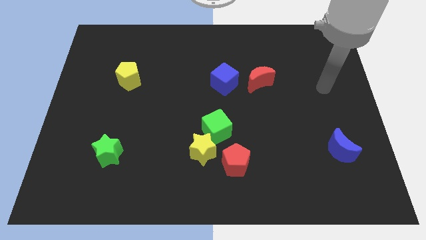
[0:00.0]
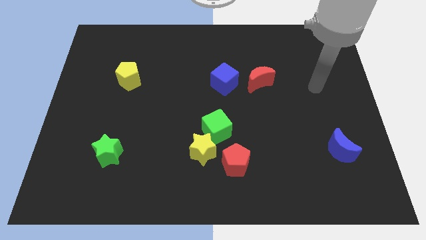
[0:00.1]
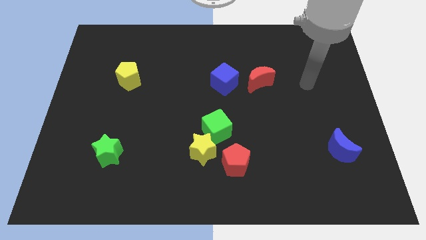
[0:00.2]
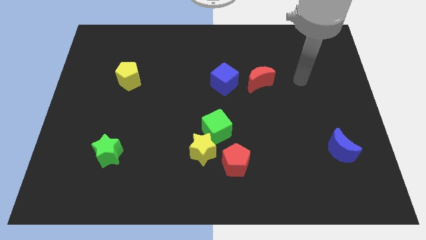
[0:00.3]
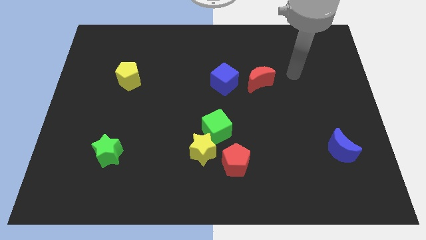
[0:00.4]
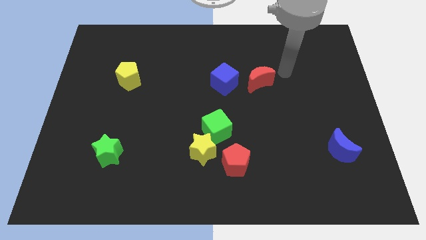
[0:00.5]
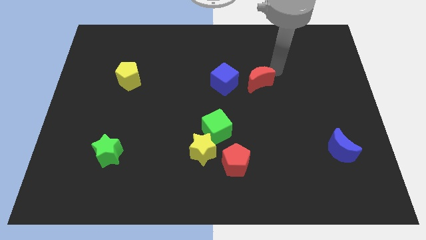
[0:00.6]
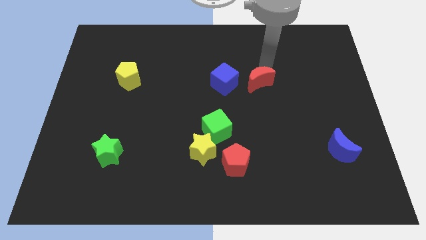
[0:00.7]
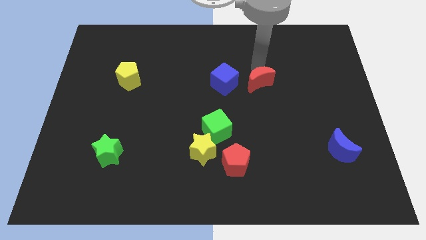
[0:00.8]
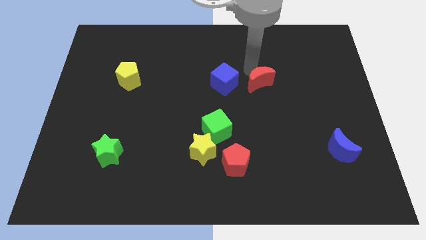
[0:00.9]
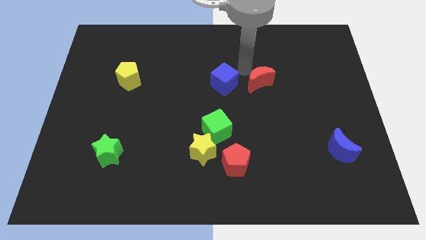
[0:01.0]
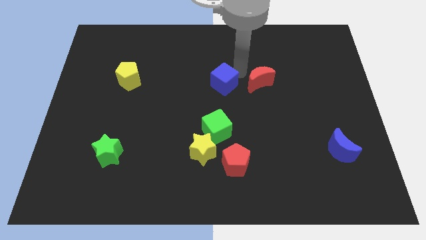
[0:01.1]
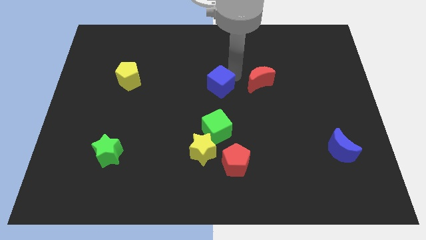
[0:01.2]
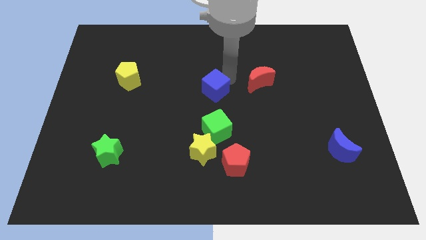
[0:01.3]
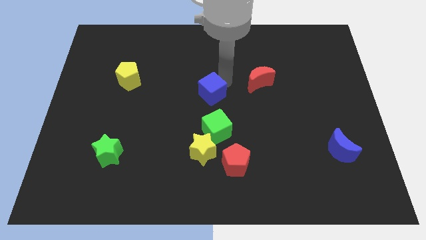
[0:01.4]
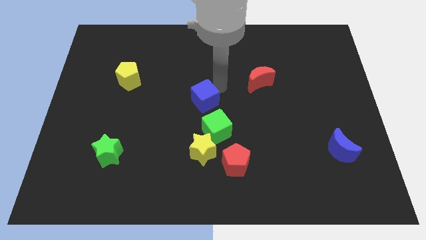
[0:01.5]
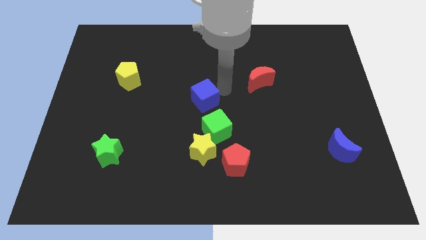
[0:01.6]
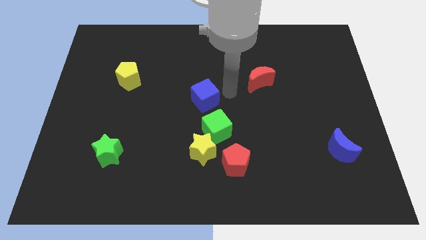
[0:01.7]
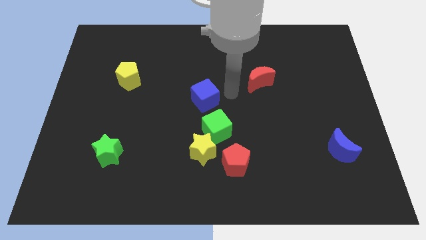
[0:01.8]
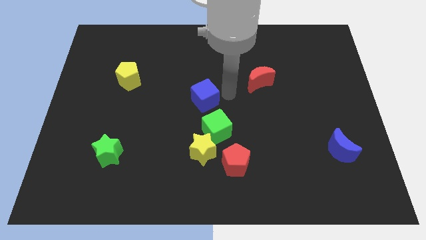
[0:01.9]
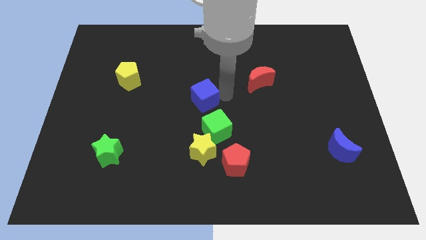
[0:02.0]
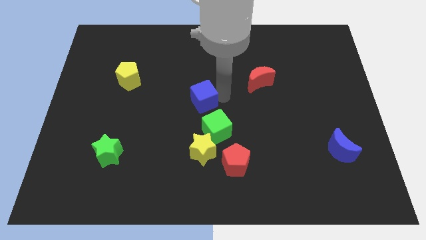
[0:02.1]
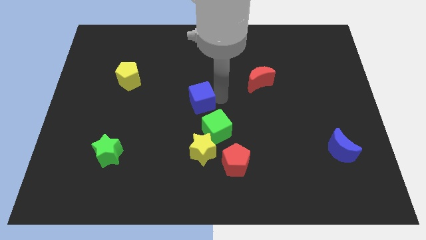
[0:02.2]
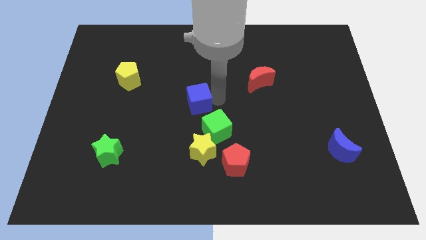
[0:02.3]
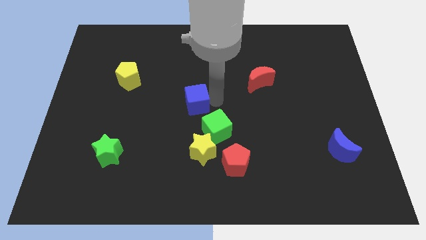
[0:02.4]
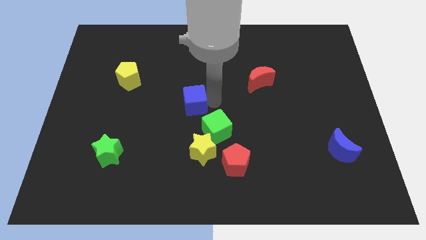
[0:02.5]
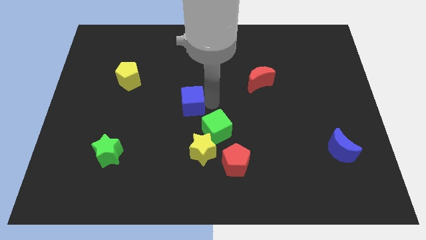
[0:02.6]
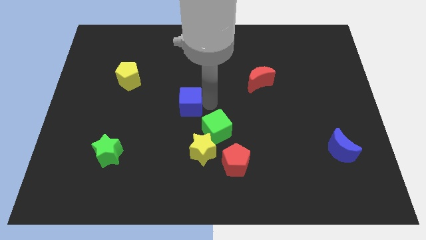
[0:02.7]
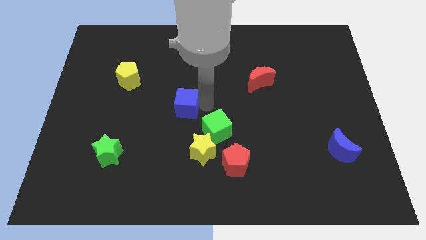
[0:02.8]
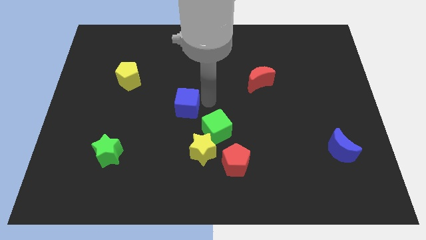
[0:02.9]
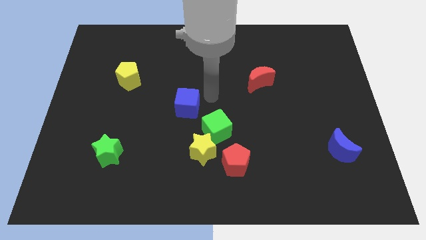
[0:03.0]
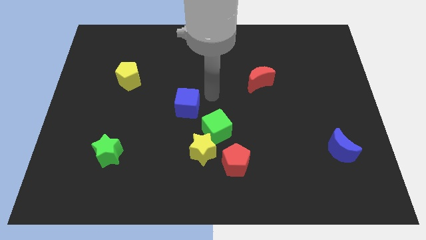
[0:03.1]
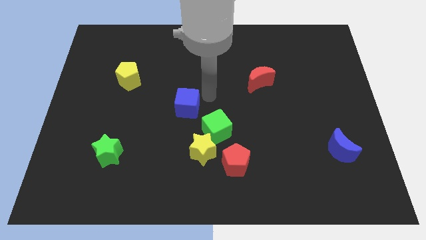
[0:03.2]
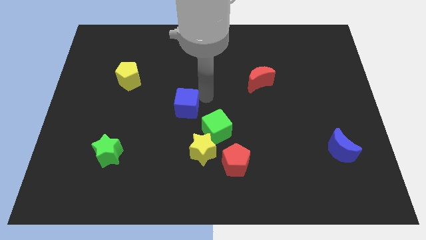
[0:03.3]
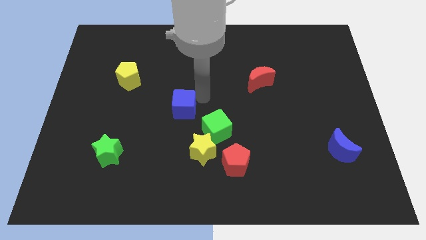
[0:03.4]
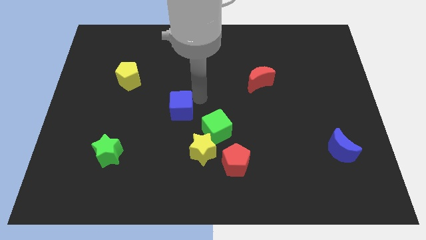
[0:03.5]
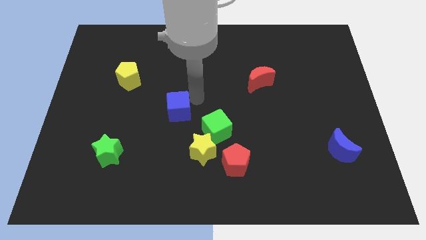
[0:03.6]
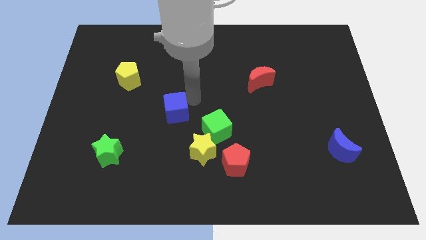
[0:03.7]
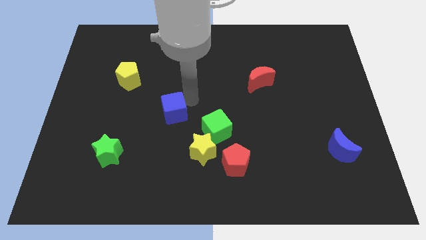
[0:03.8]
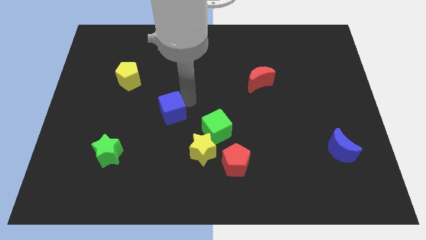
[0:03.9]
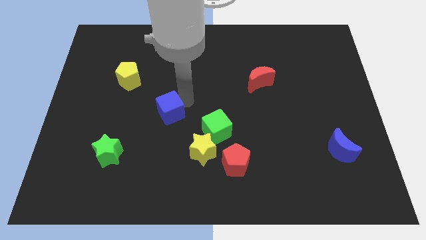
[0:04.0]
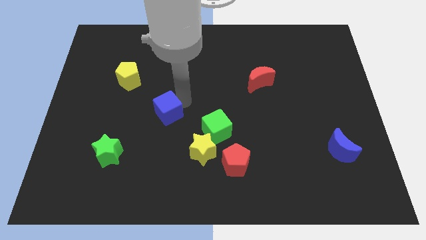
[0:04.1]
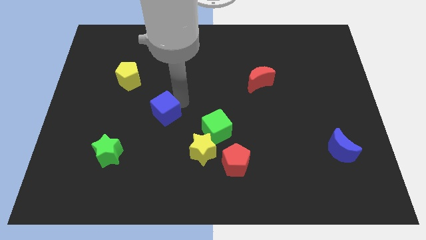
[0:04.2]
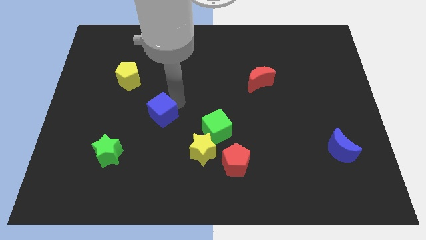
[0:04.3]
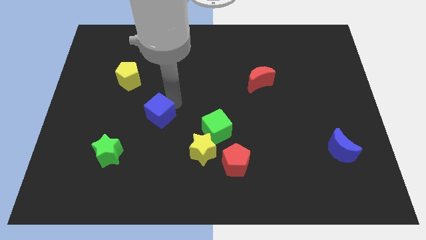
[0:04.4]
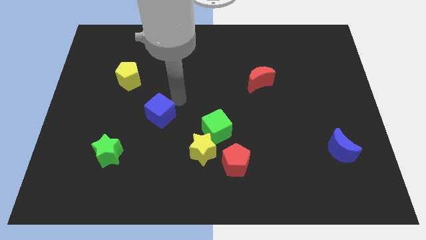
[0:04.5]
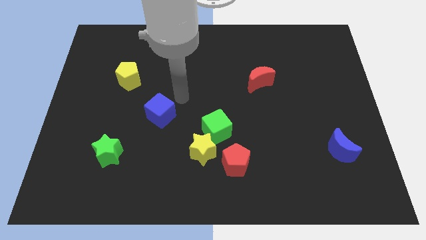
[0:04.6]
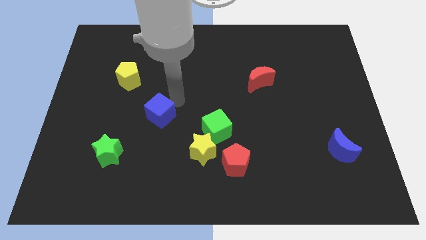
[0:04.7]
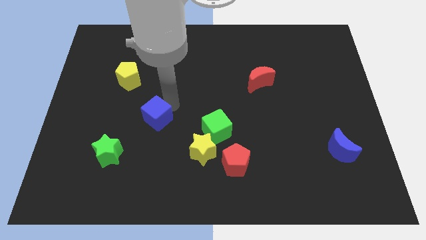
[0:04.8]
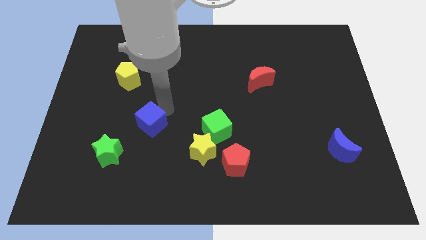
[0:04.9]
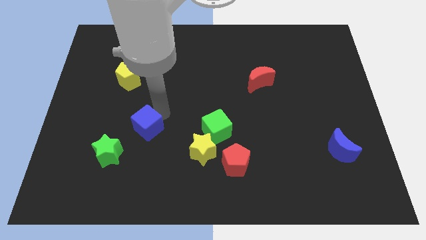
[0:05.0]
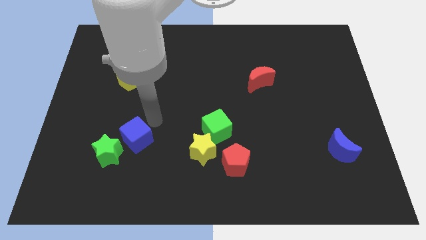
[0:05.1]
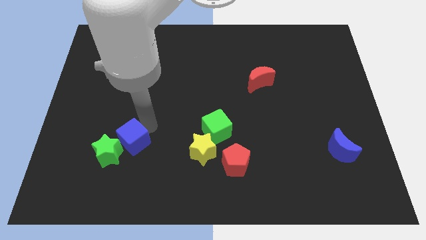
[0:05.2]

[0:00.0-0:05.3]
put the blue cube next to the green star

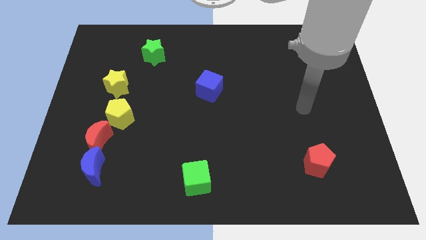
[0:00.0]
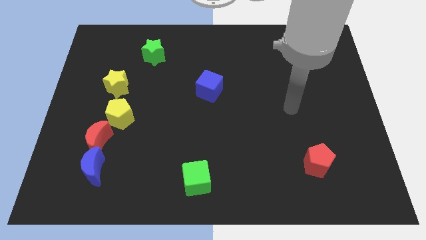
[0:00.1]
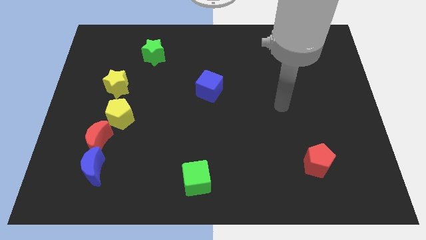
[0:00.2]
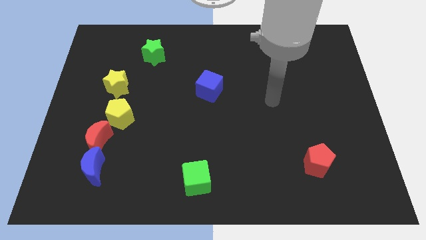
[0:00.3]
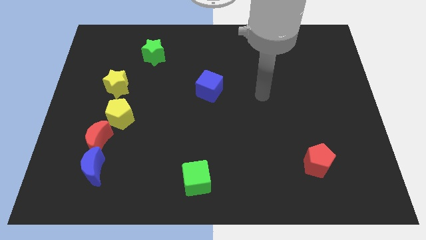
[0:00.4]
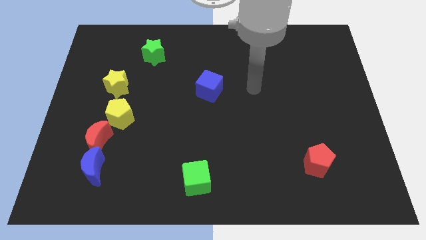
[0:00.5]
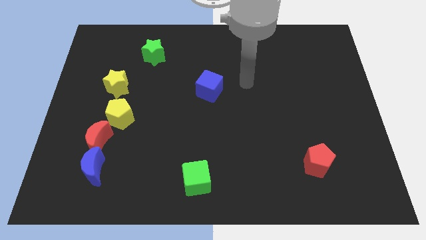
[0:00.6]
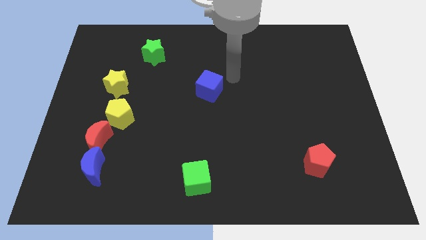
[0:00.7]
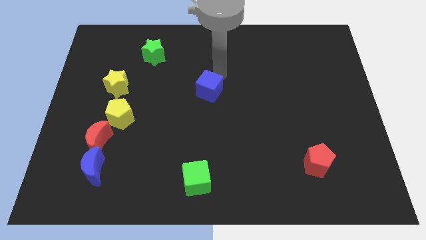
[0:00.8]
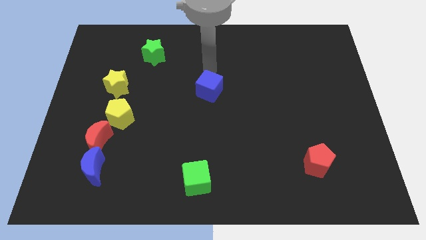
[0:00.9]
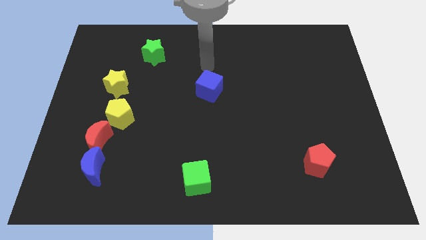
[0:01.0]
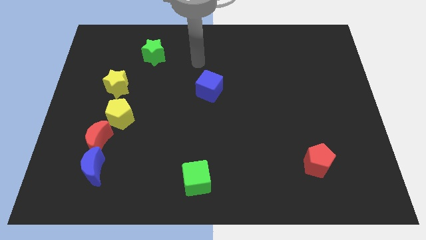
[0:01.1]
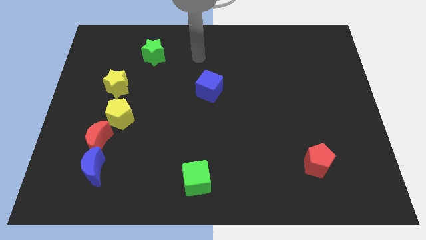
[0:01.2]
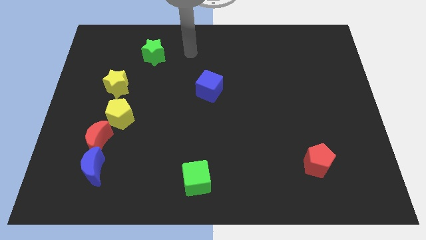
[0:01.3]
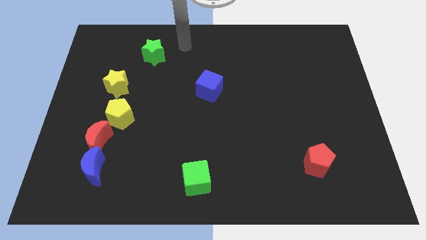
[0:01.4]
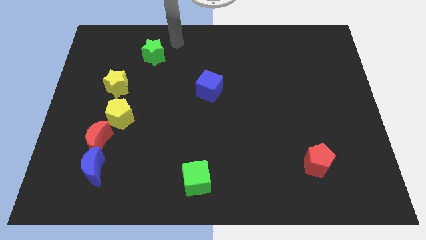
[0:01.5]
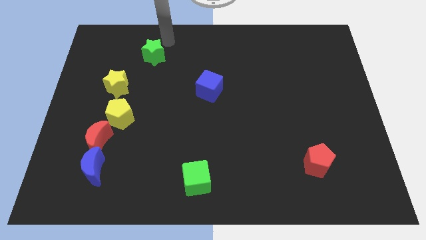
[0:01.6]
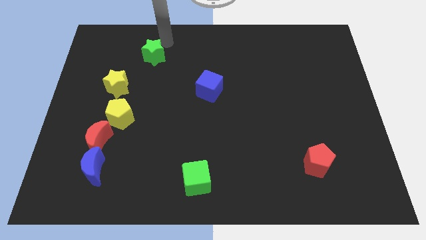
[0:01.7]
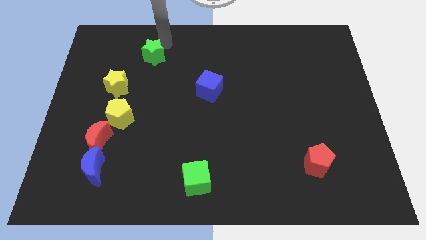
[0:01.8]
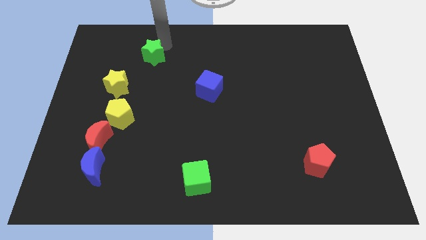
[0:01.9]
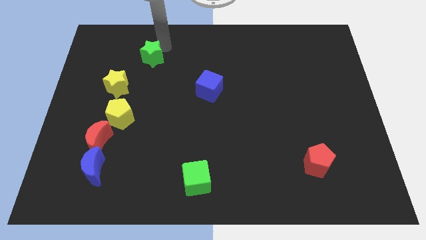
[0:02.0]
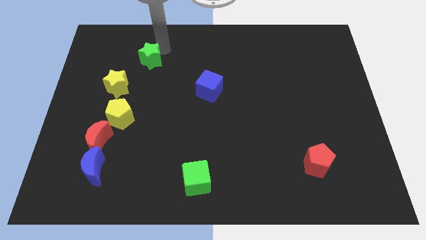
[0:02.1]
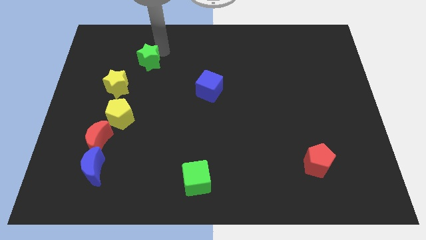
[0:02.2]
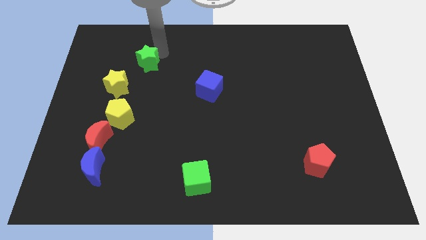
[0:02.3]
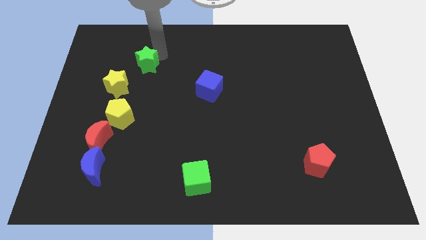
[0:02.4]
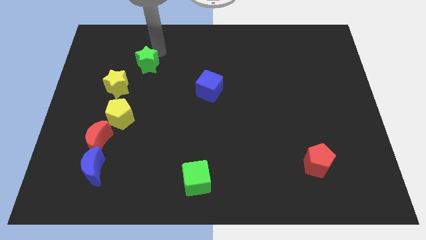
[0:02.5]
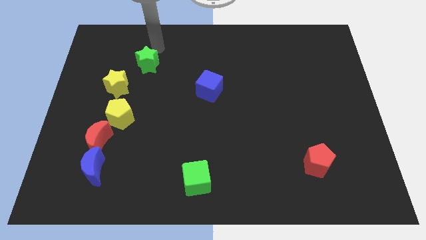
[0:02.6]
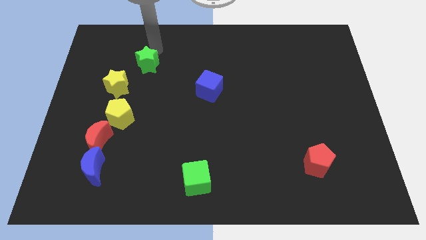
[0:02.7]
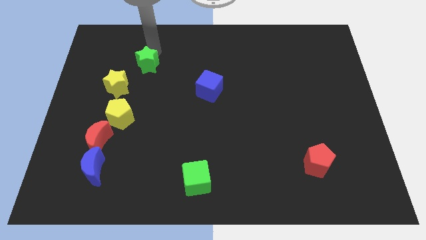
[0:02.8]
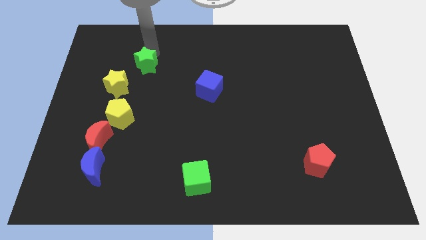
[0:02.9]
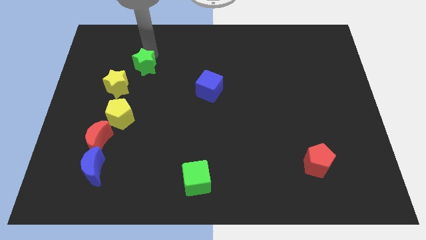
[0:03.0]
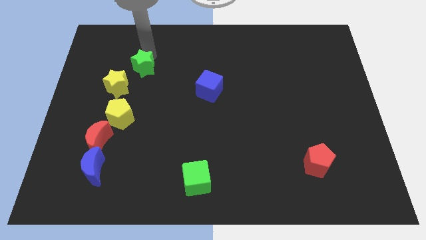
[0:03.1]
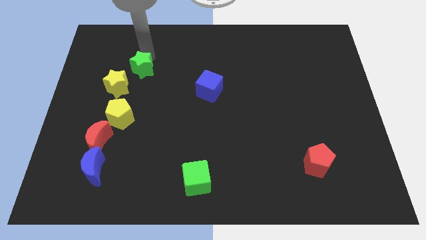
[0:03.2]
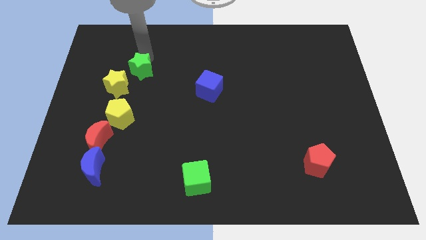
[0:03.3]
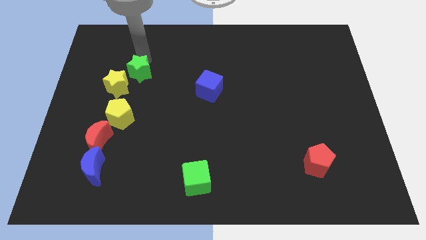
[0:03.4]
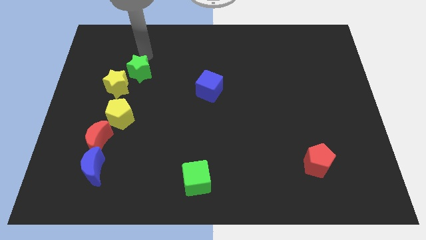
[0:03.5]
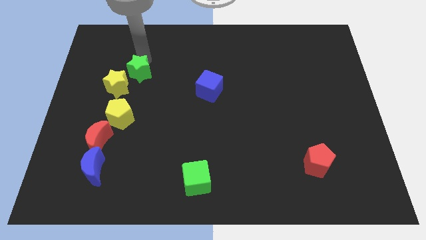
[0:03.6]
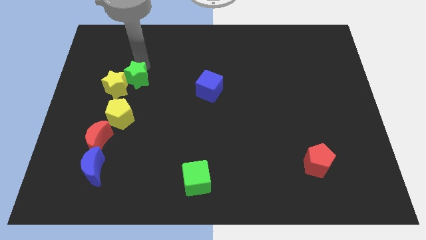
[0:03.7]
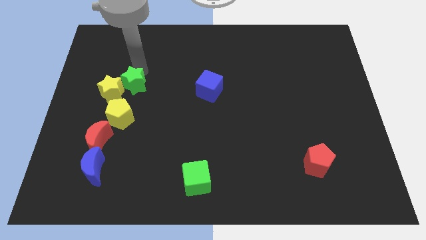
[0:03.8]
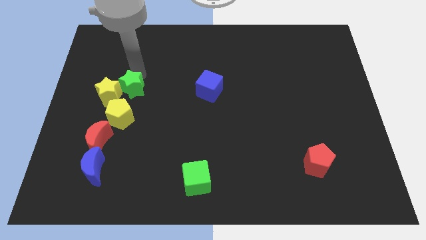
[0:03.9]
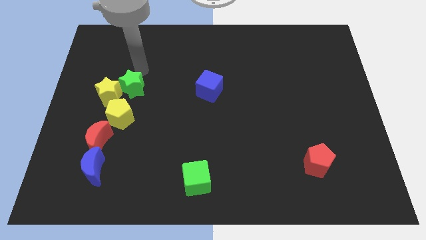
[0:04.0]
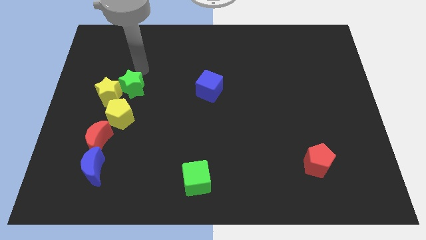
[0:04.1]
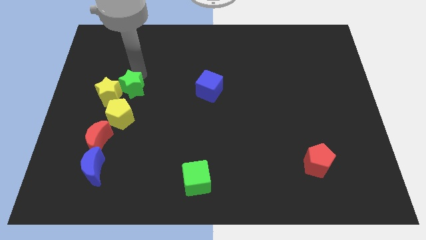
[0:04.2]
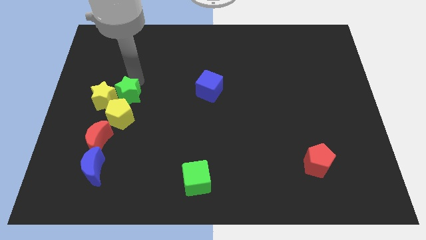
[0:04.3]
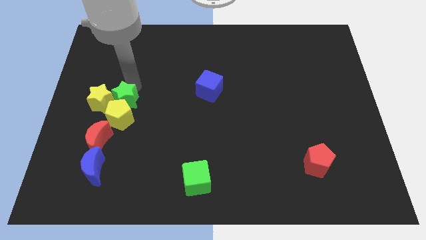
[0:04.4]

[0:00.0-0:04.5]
push the green star towards the yellow pentagon
